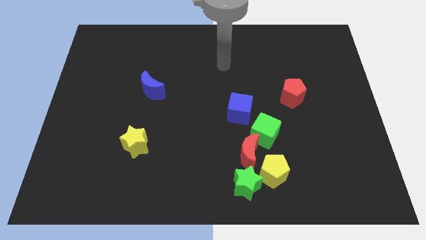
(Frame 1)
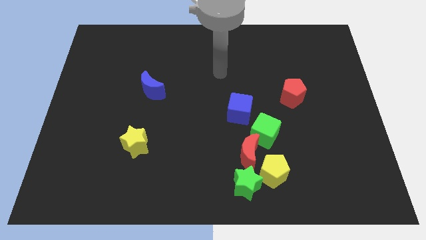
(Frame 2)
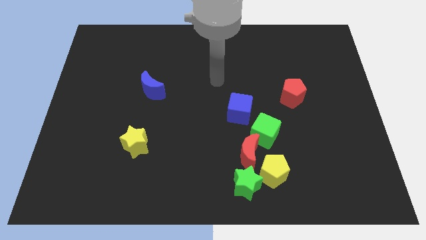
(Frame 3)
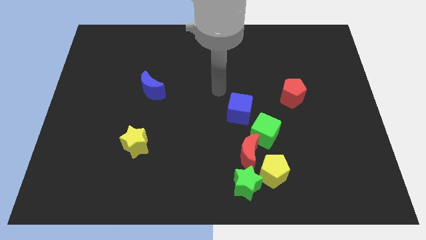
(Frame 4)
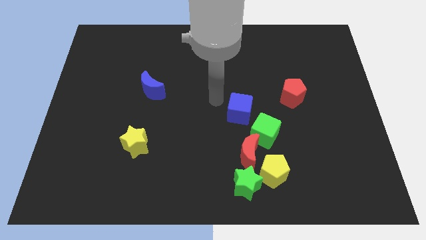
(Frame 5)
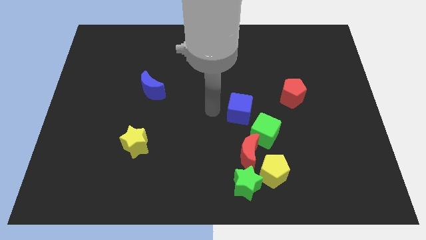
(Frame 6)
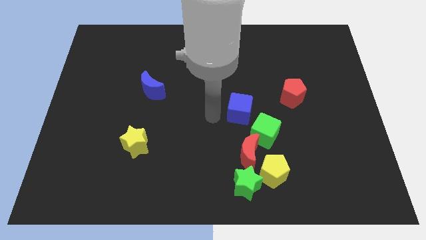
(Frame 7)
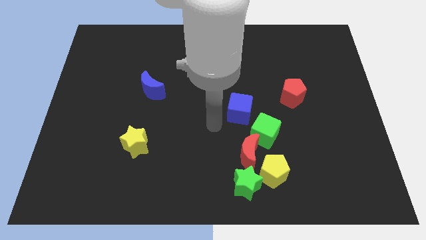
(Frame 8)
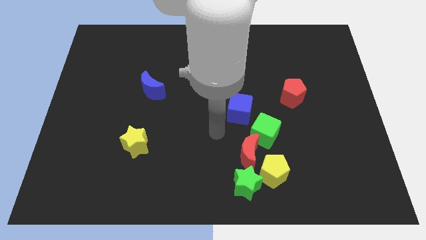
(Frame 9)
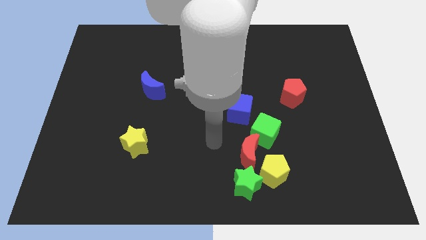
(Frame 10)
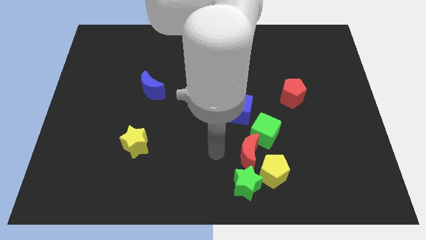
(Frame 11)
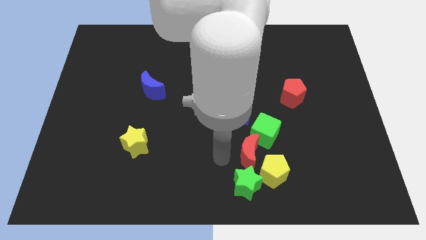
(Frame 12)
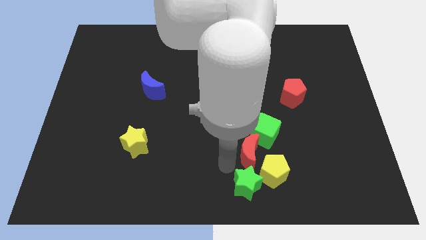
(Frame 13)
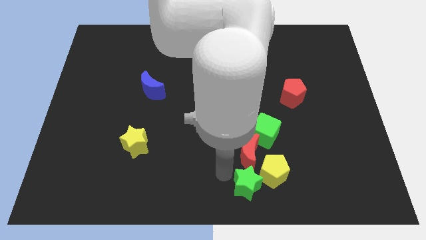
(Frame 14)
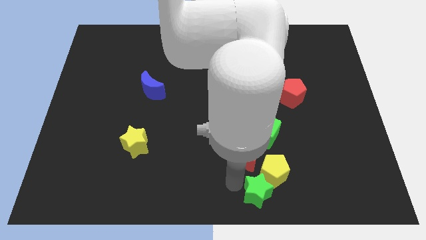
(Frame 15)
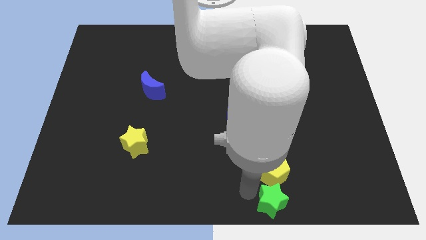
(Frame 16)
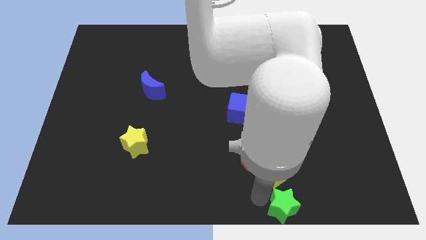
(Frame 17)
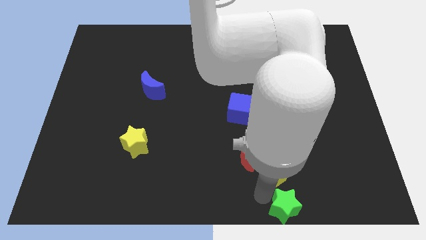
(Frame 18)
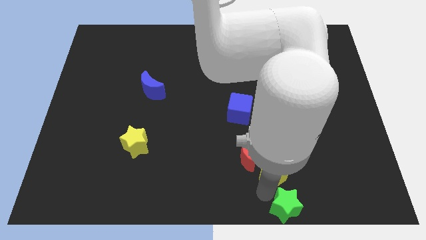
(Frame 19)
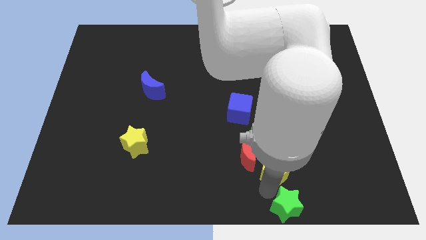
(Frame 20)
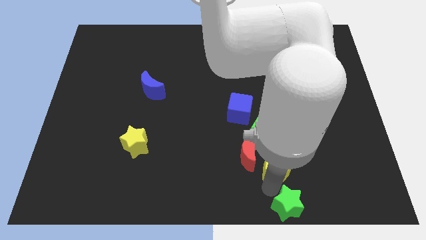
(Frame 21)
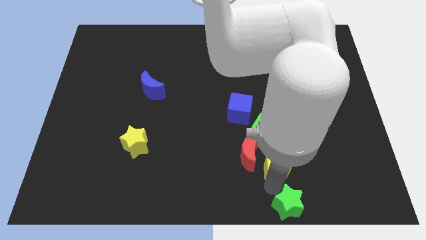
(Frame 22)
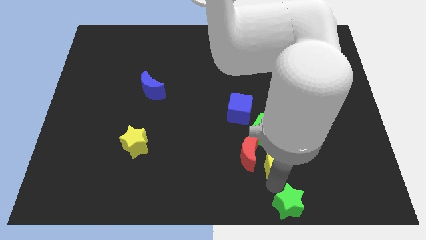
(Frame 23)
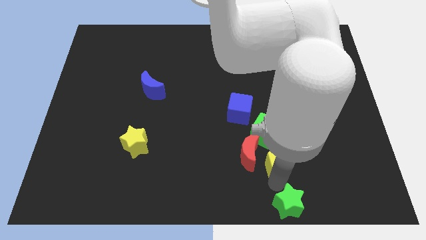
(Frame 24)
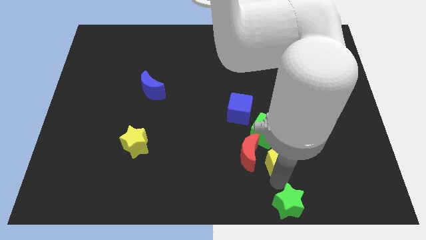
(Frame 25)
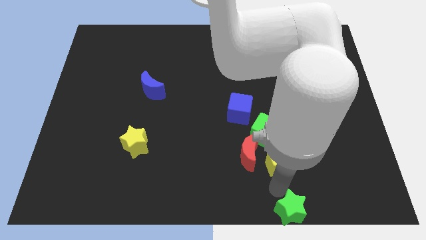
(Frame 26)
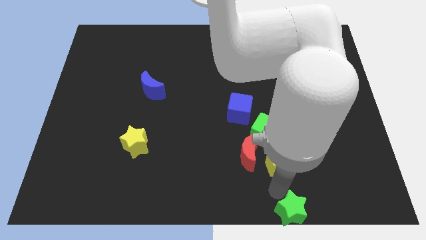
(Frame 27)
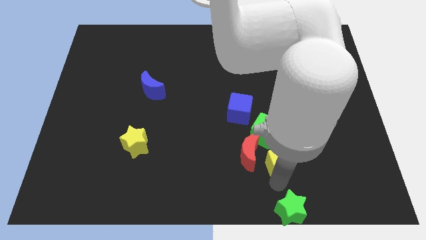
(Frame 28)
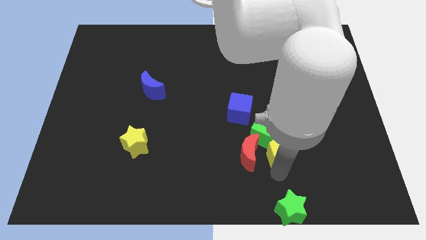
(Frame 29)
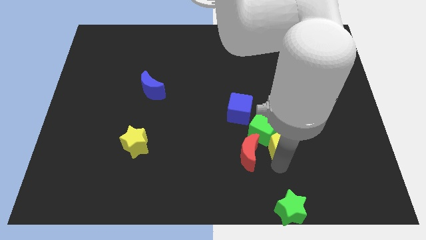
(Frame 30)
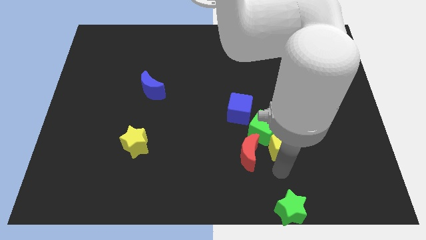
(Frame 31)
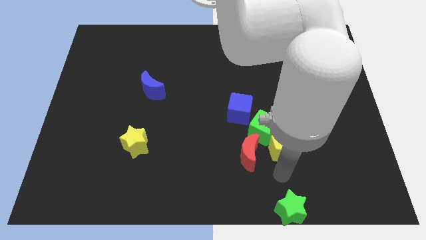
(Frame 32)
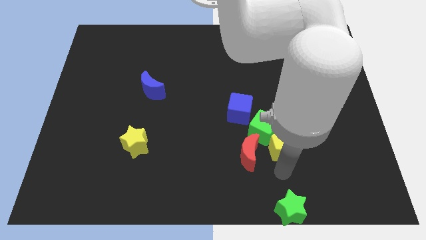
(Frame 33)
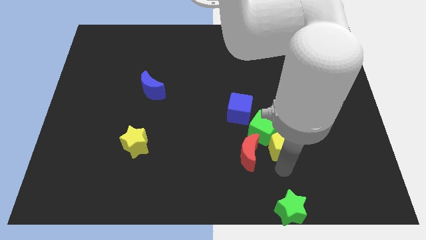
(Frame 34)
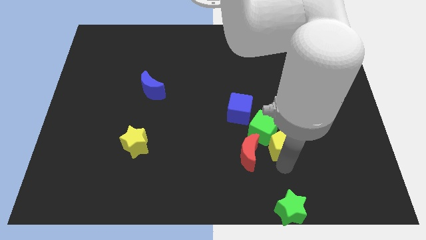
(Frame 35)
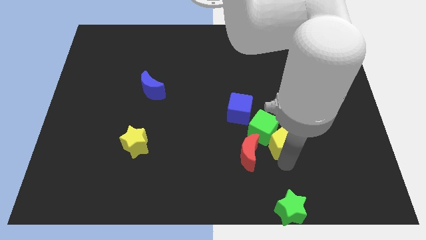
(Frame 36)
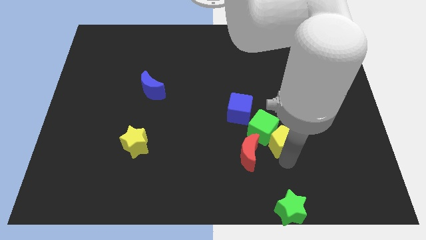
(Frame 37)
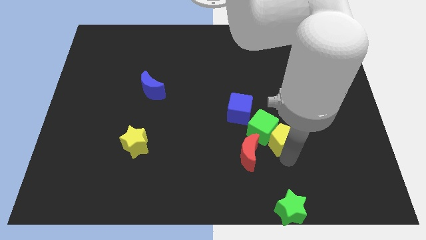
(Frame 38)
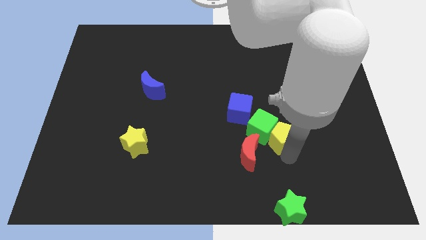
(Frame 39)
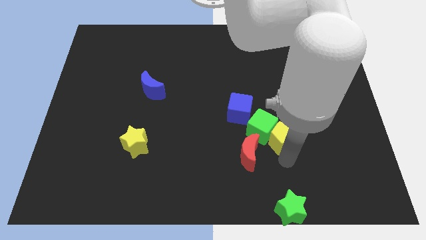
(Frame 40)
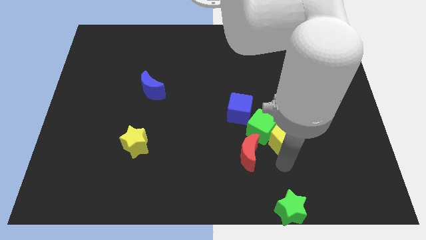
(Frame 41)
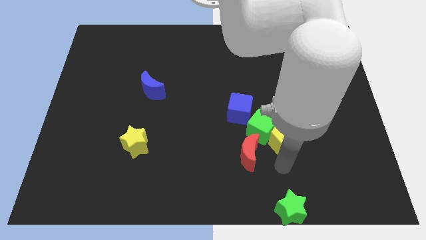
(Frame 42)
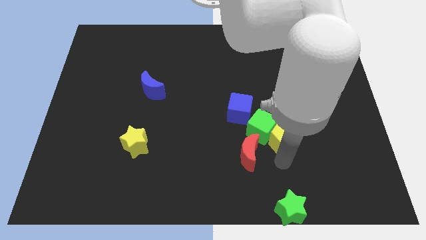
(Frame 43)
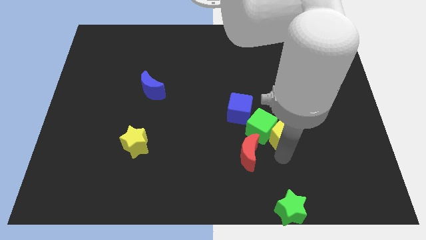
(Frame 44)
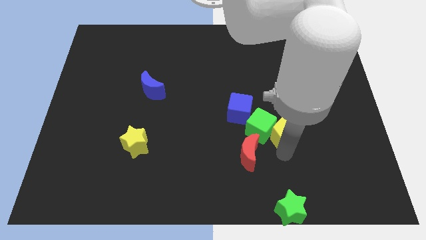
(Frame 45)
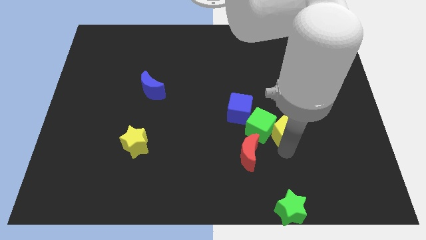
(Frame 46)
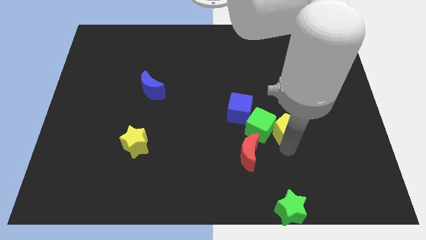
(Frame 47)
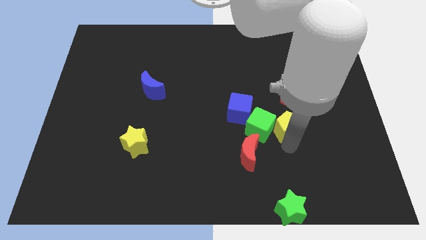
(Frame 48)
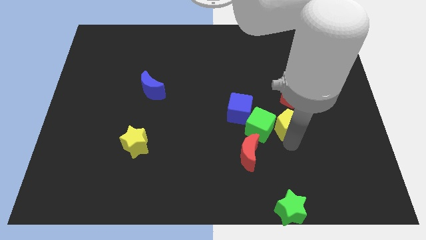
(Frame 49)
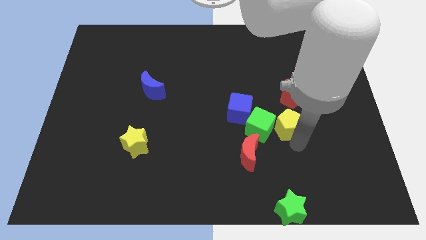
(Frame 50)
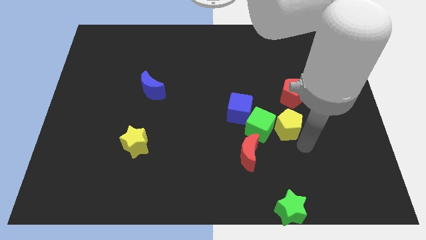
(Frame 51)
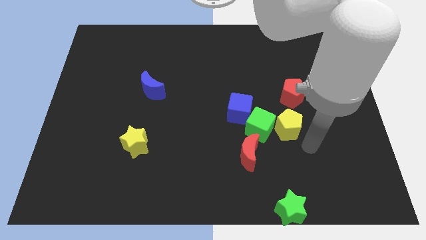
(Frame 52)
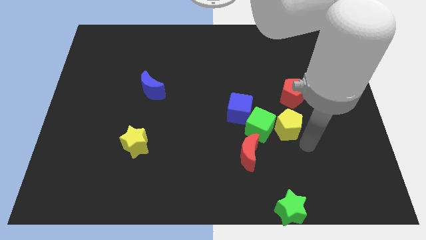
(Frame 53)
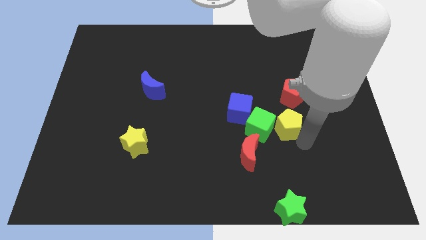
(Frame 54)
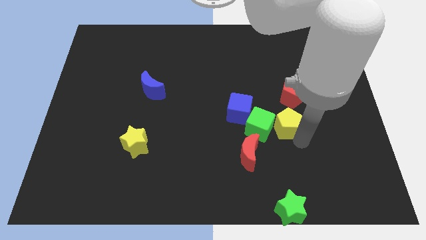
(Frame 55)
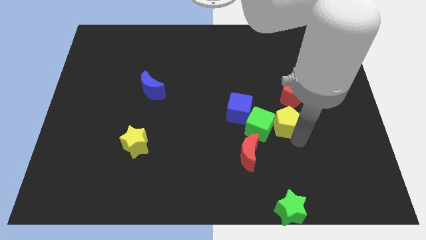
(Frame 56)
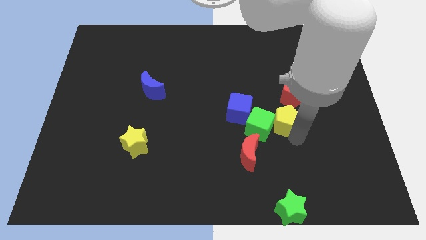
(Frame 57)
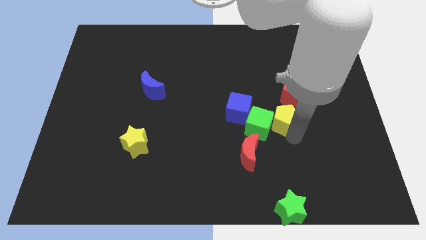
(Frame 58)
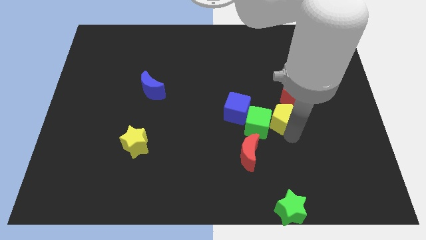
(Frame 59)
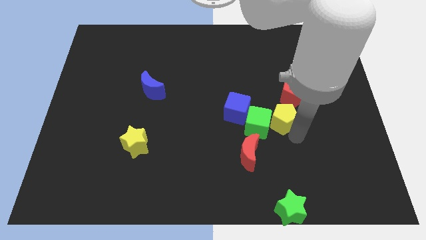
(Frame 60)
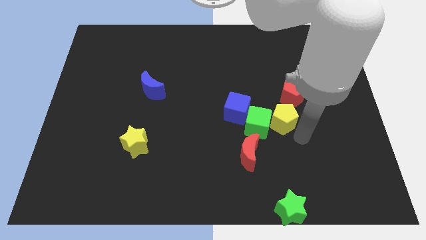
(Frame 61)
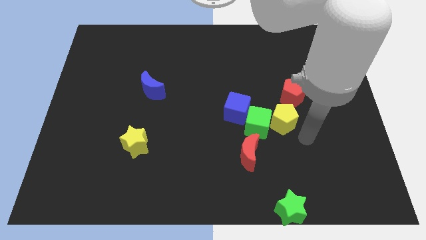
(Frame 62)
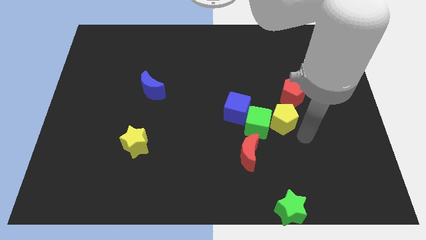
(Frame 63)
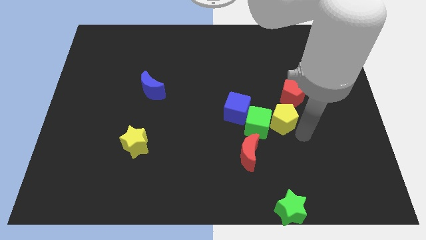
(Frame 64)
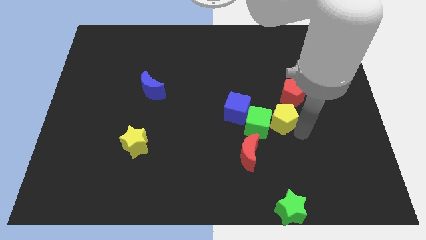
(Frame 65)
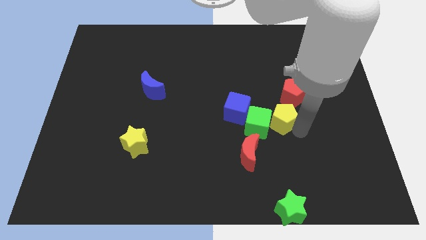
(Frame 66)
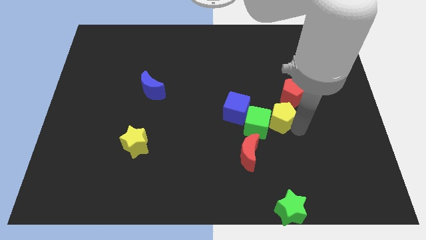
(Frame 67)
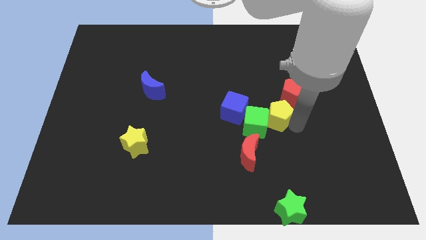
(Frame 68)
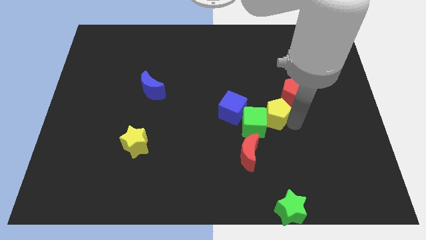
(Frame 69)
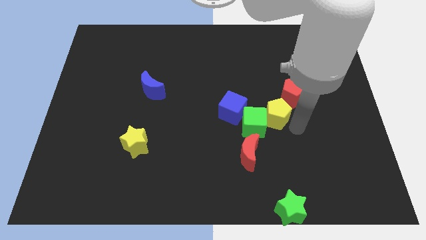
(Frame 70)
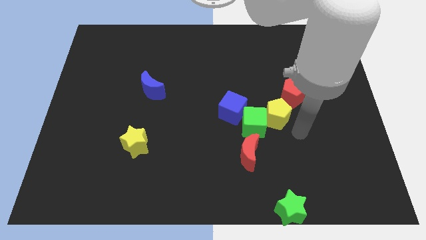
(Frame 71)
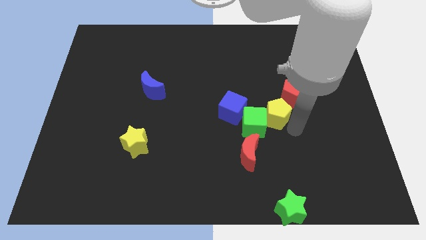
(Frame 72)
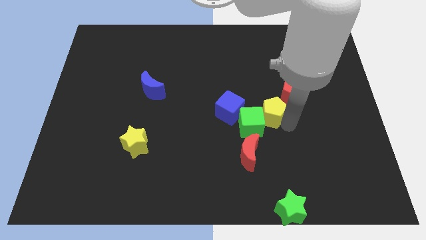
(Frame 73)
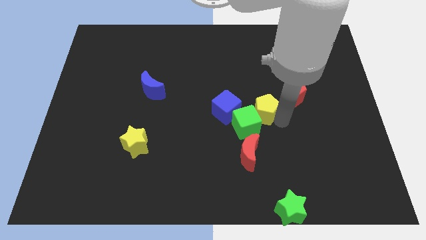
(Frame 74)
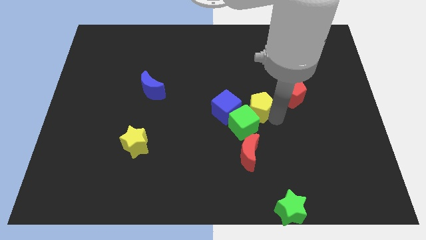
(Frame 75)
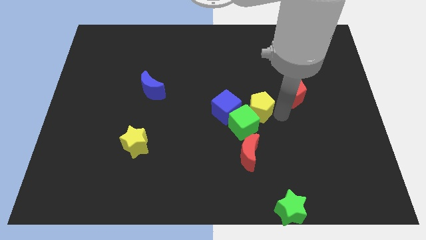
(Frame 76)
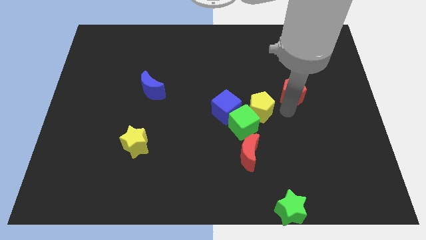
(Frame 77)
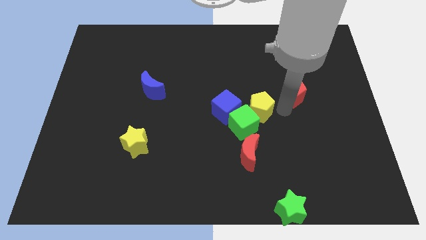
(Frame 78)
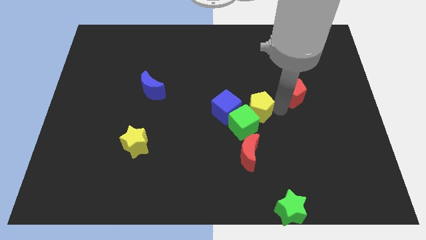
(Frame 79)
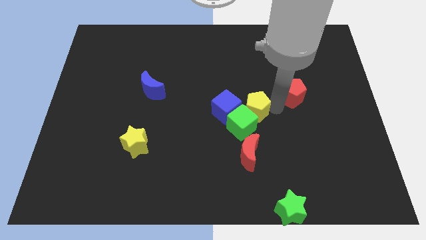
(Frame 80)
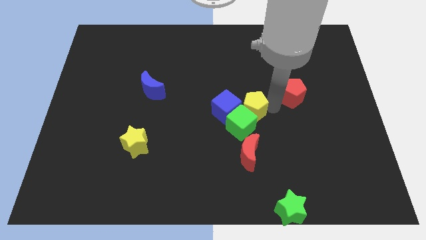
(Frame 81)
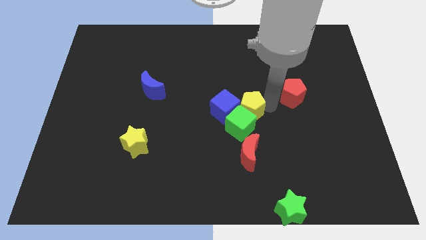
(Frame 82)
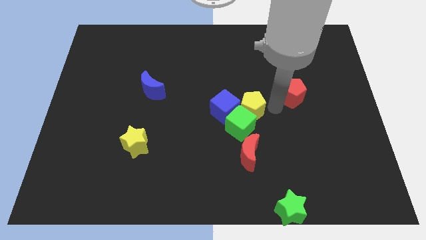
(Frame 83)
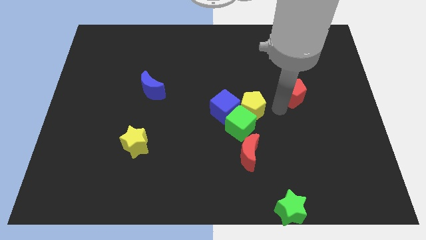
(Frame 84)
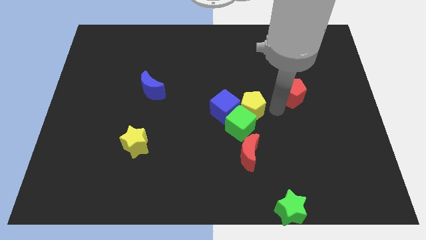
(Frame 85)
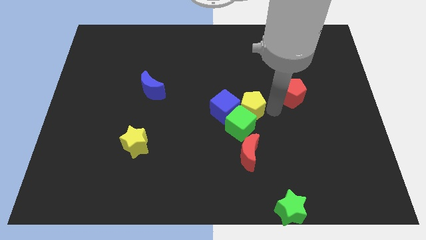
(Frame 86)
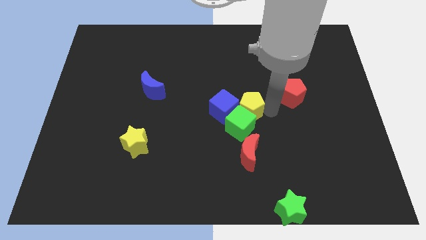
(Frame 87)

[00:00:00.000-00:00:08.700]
move the yellow pentagon towards the blue cube
